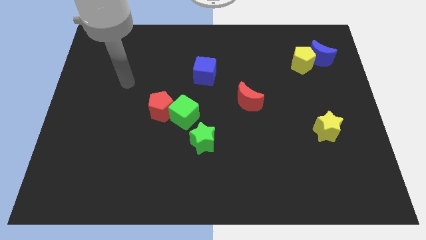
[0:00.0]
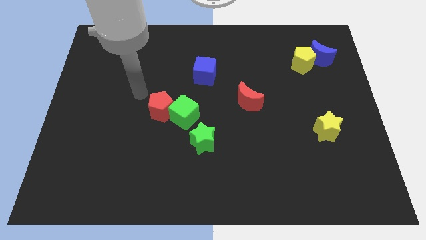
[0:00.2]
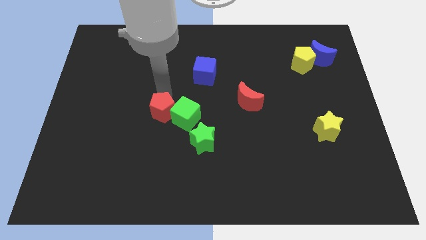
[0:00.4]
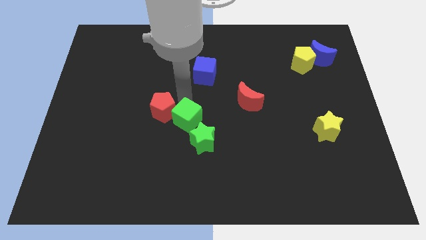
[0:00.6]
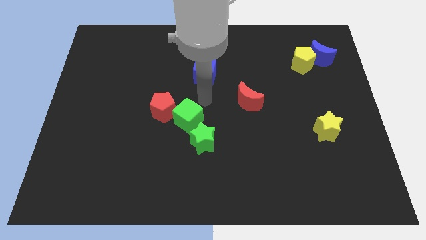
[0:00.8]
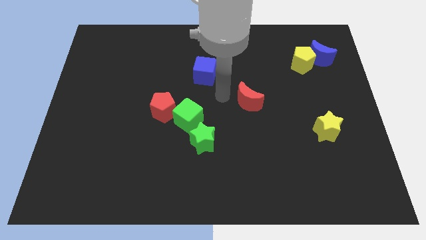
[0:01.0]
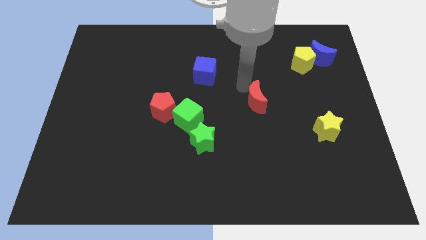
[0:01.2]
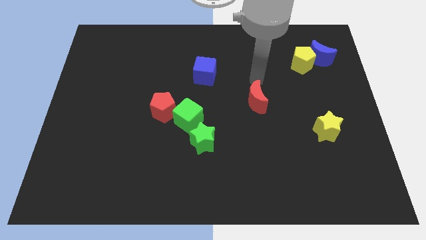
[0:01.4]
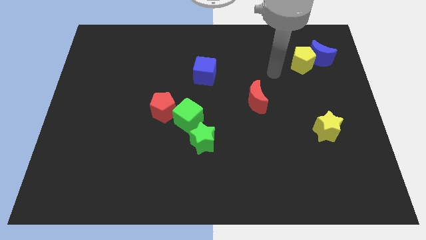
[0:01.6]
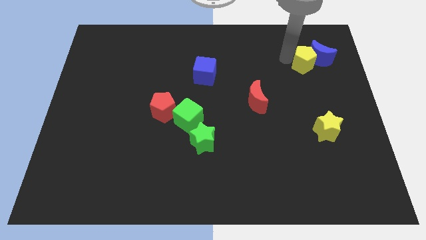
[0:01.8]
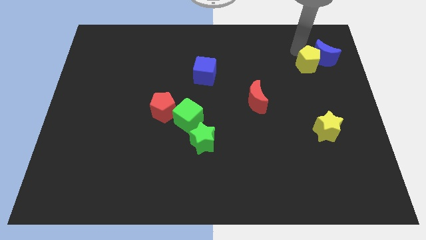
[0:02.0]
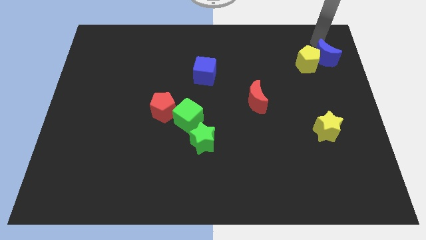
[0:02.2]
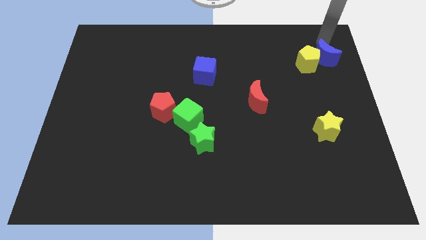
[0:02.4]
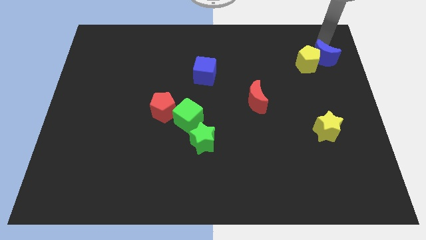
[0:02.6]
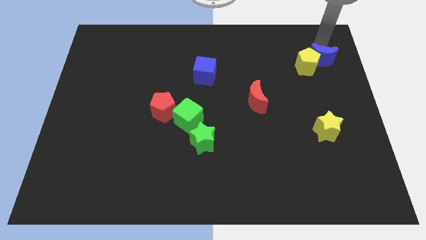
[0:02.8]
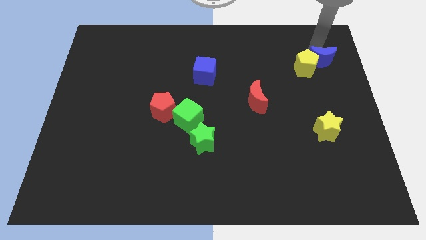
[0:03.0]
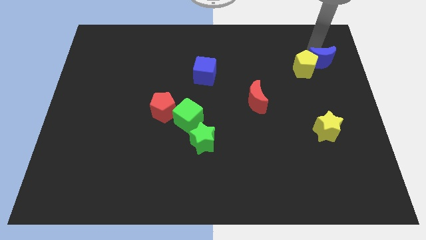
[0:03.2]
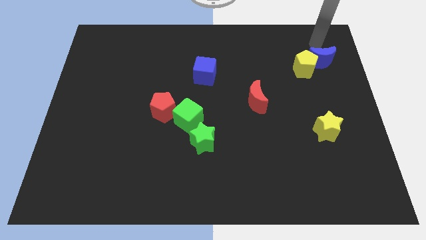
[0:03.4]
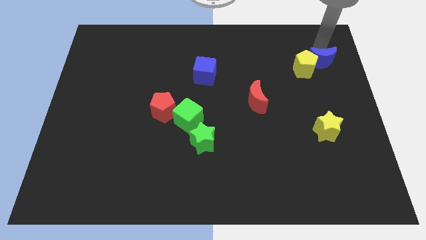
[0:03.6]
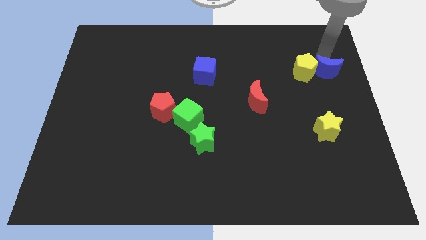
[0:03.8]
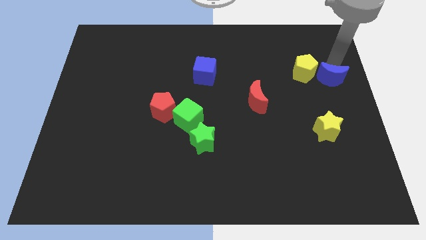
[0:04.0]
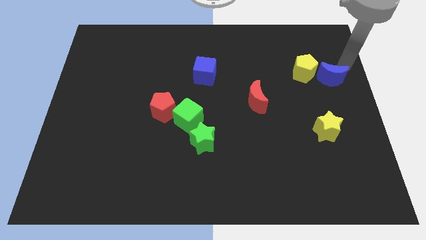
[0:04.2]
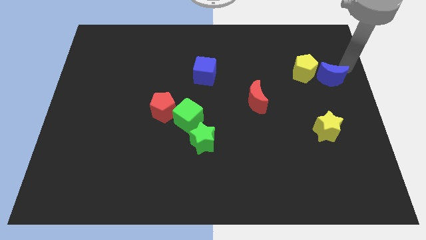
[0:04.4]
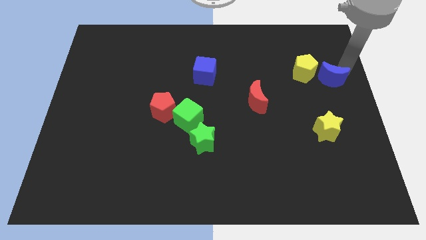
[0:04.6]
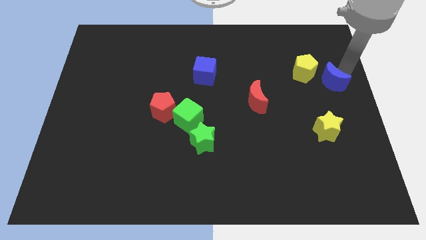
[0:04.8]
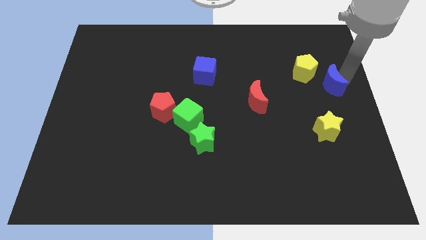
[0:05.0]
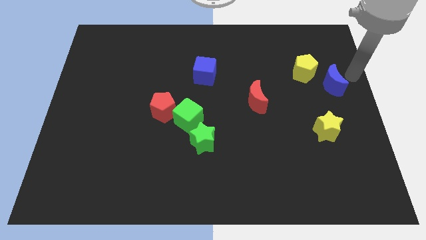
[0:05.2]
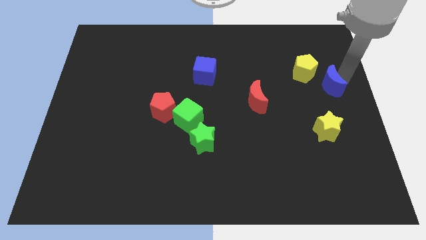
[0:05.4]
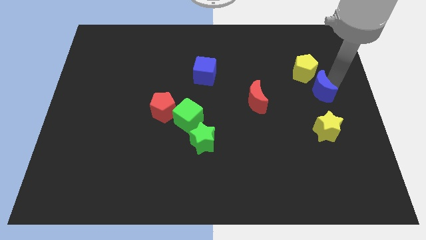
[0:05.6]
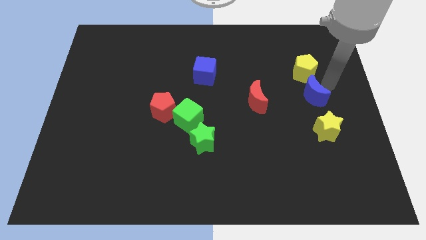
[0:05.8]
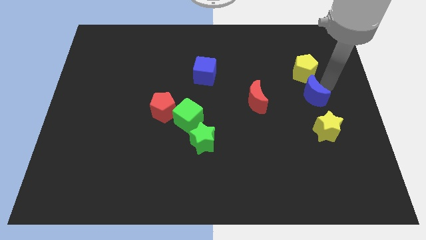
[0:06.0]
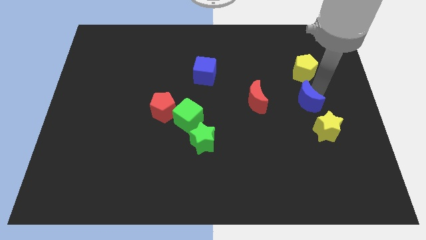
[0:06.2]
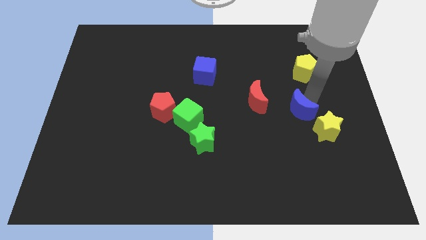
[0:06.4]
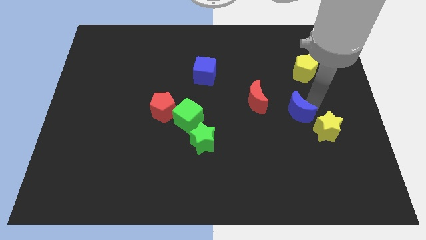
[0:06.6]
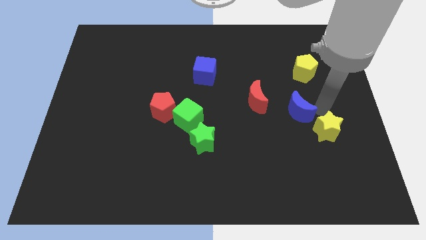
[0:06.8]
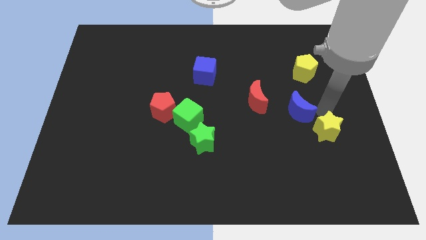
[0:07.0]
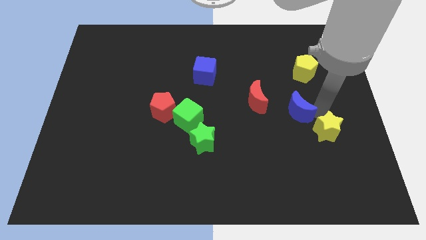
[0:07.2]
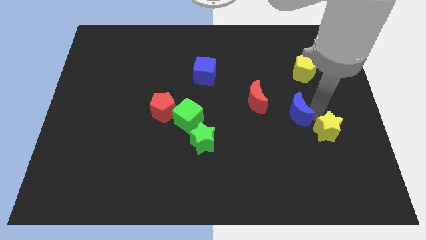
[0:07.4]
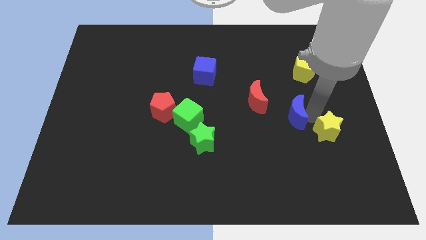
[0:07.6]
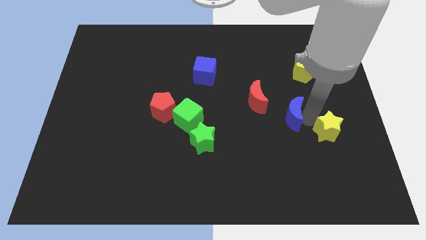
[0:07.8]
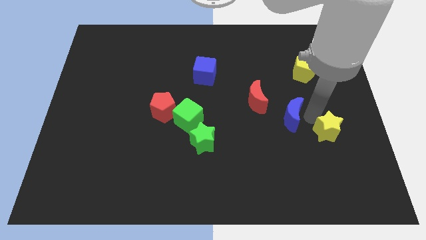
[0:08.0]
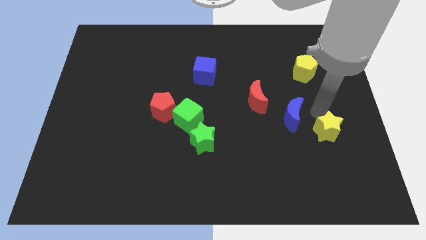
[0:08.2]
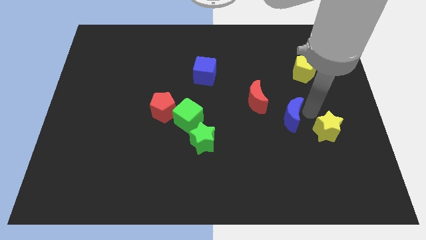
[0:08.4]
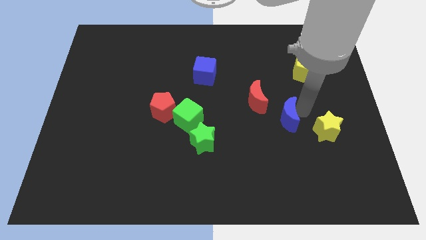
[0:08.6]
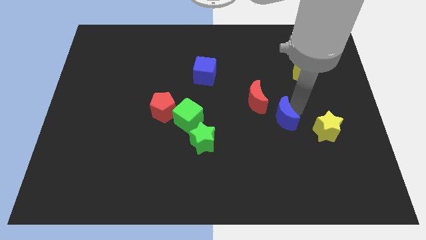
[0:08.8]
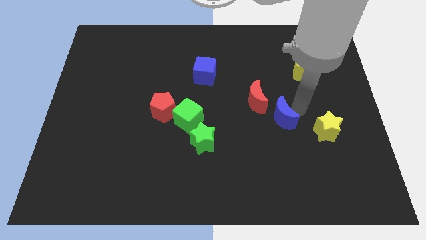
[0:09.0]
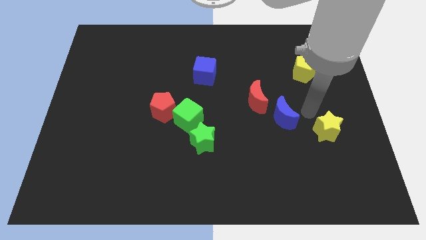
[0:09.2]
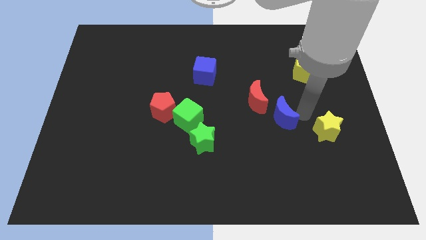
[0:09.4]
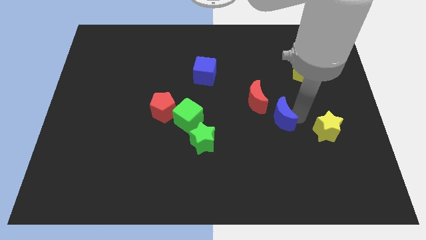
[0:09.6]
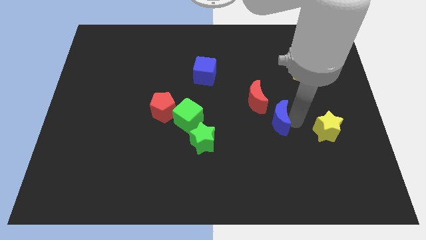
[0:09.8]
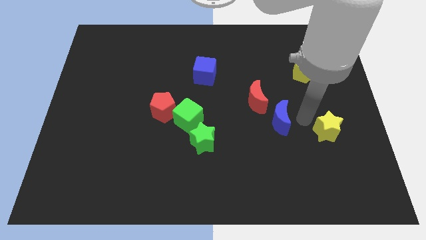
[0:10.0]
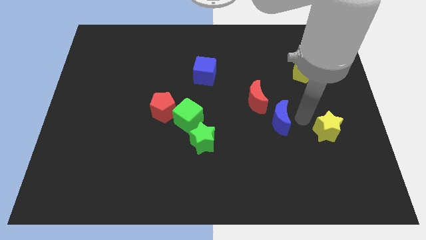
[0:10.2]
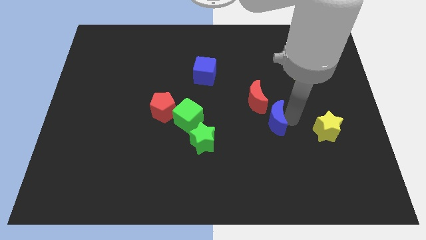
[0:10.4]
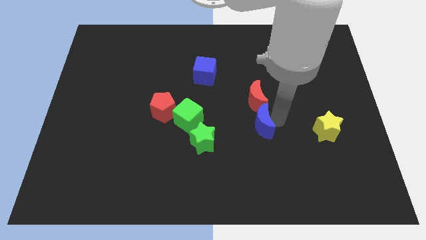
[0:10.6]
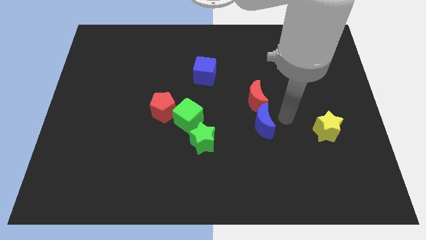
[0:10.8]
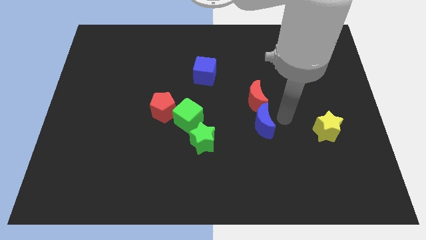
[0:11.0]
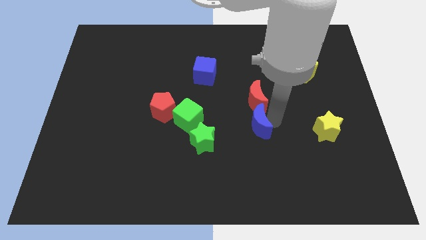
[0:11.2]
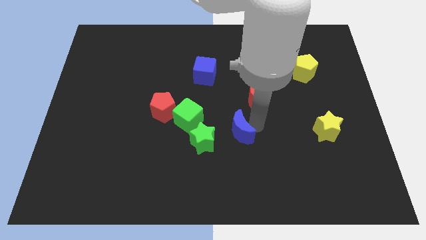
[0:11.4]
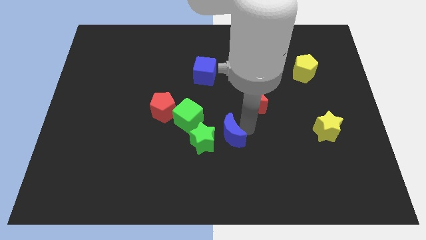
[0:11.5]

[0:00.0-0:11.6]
move the blue moon close to the green star
